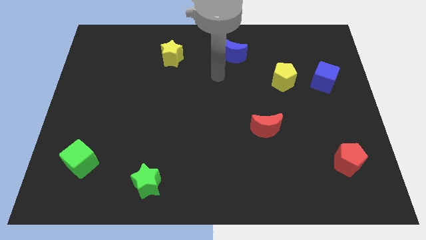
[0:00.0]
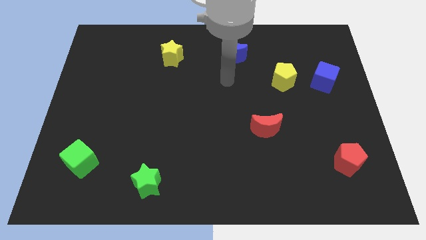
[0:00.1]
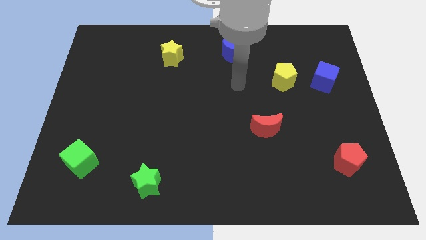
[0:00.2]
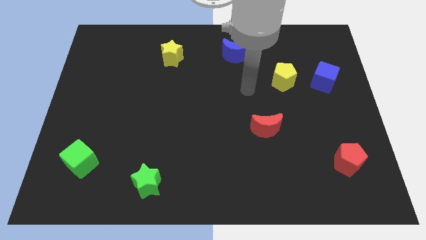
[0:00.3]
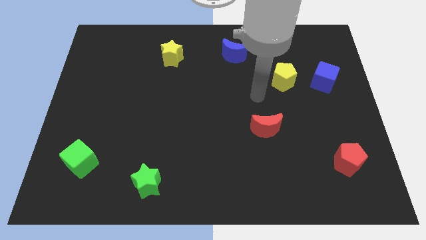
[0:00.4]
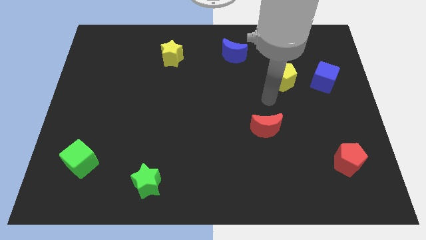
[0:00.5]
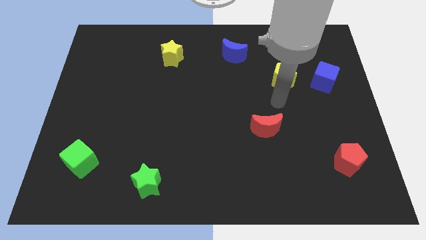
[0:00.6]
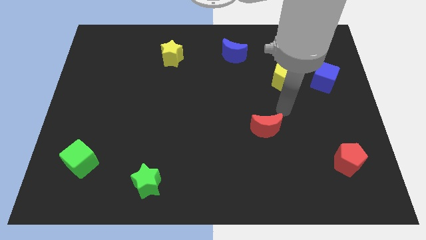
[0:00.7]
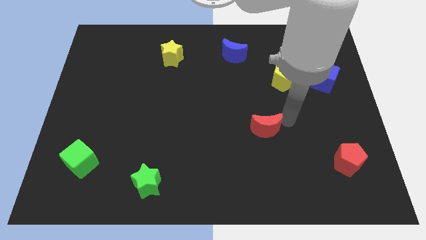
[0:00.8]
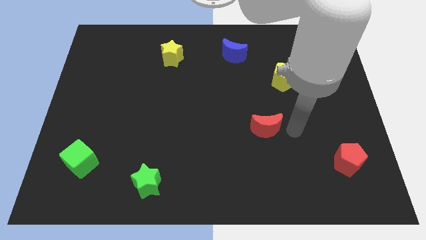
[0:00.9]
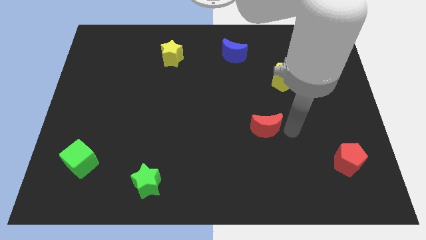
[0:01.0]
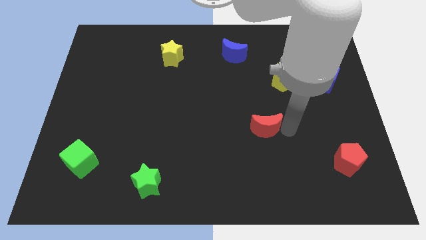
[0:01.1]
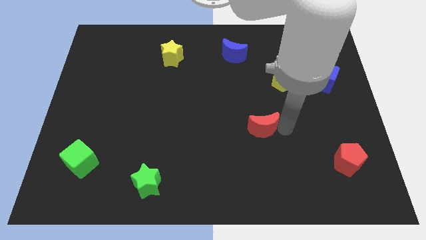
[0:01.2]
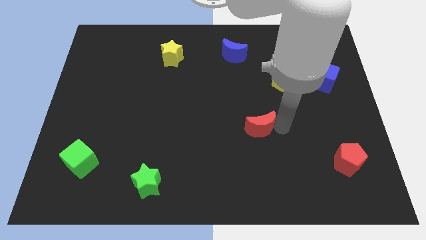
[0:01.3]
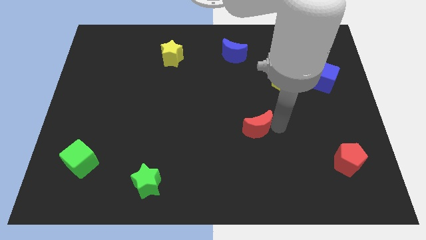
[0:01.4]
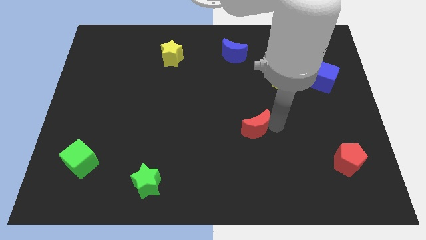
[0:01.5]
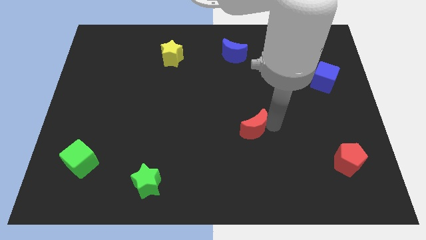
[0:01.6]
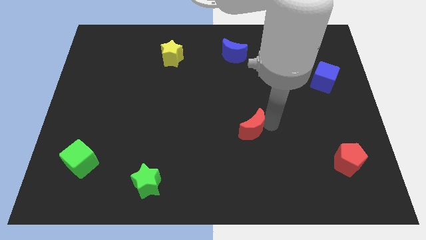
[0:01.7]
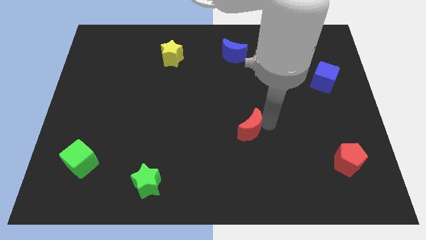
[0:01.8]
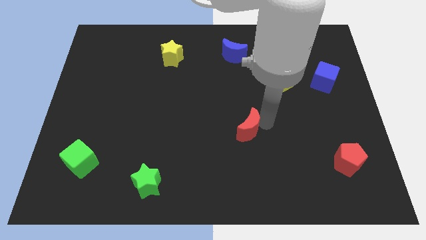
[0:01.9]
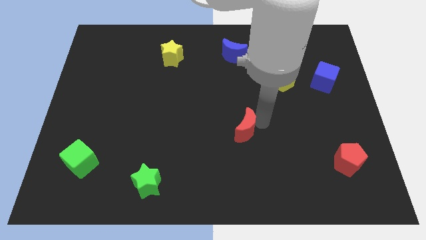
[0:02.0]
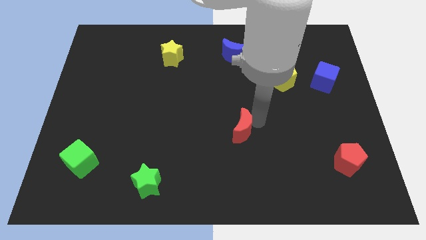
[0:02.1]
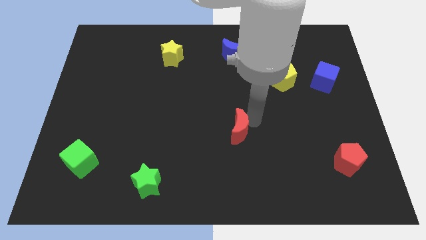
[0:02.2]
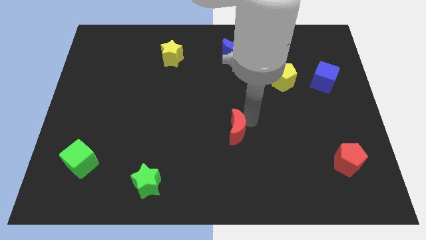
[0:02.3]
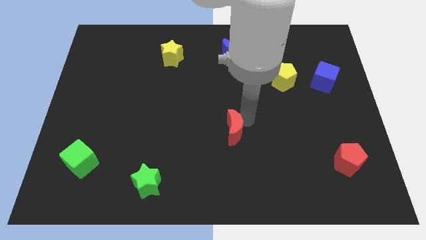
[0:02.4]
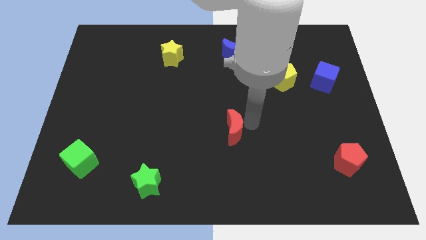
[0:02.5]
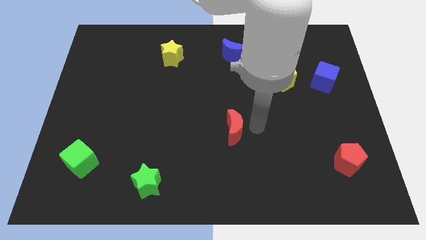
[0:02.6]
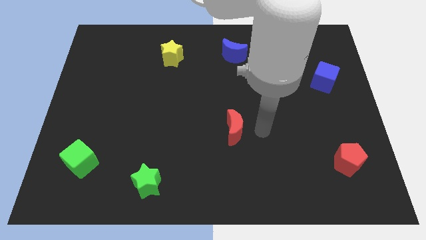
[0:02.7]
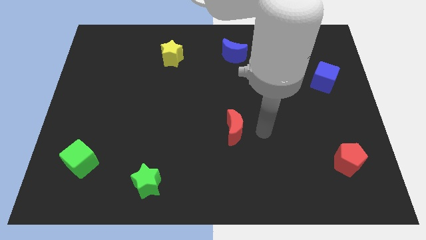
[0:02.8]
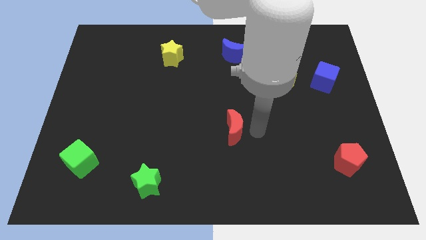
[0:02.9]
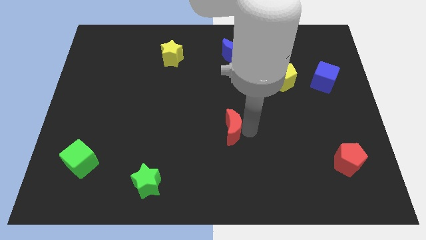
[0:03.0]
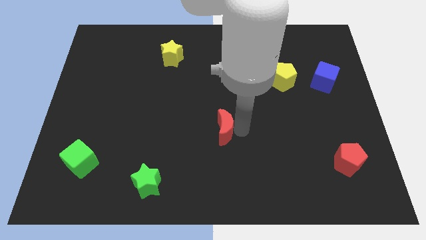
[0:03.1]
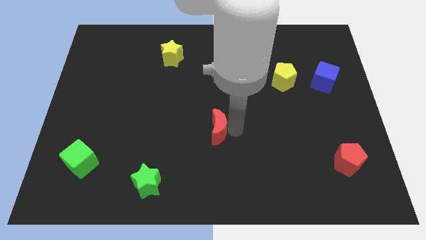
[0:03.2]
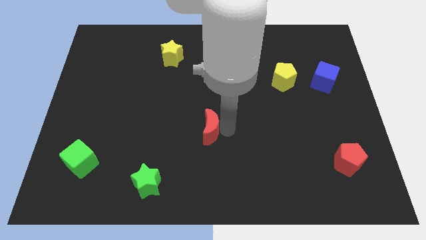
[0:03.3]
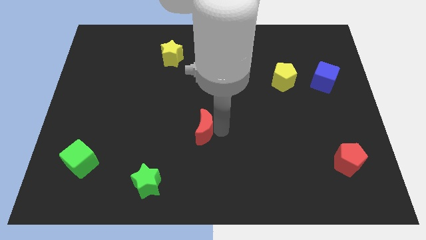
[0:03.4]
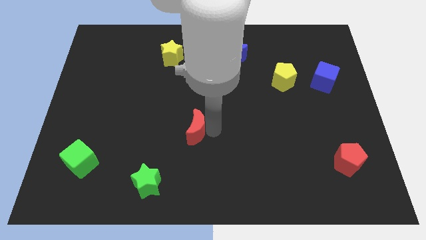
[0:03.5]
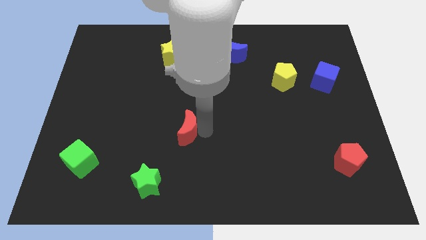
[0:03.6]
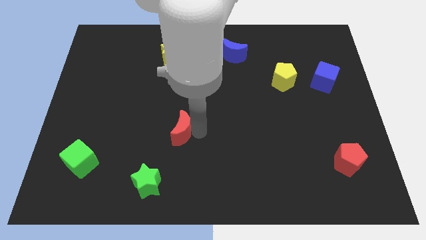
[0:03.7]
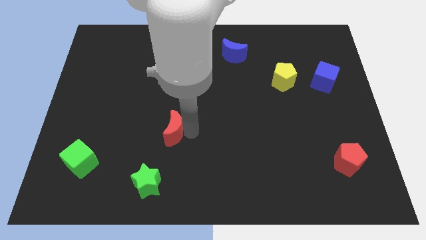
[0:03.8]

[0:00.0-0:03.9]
slide the red moon to the left

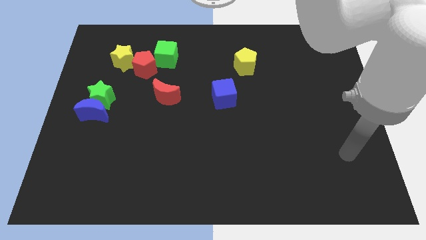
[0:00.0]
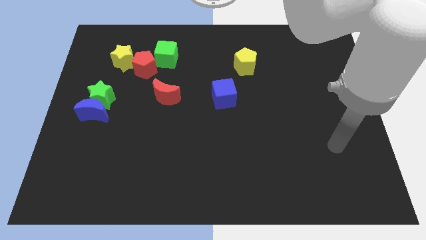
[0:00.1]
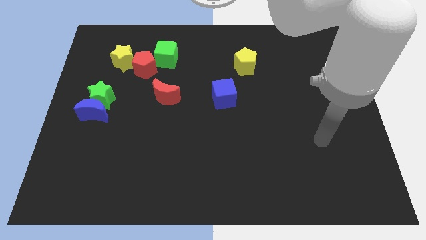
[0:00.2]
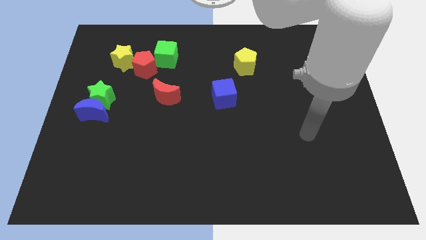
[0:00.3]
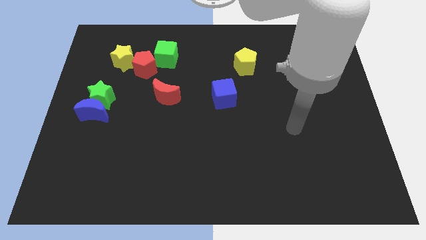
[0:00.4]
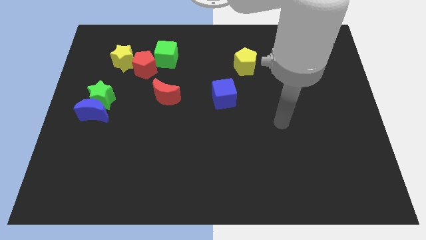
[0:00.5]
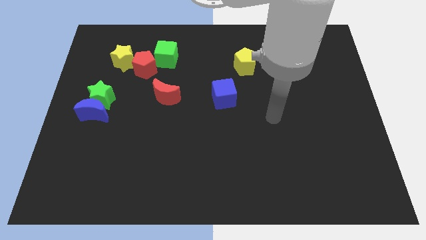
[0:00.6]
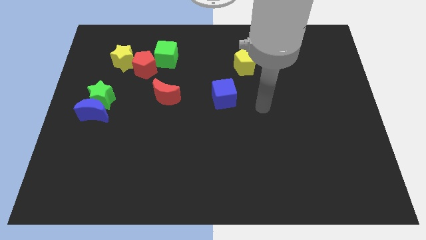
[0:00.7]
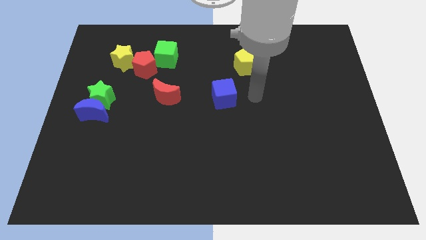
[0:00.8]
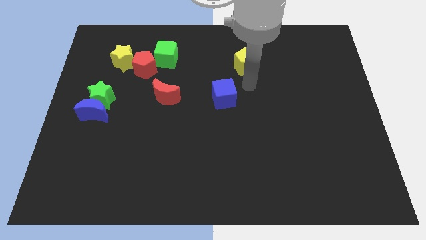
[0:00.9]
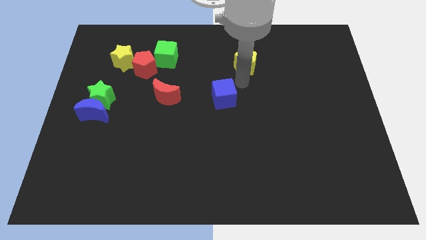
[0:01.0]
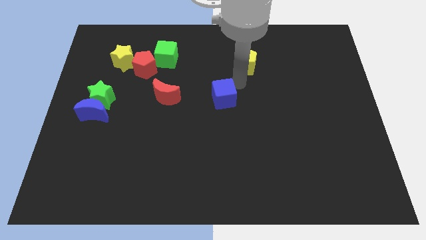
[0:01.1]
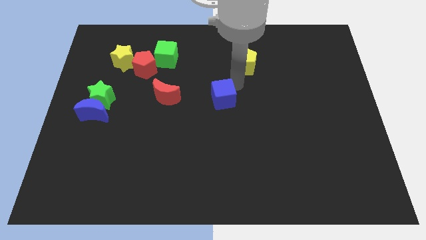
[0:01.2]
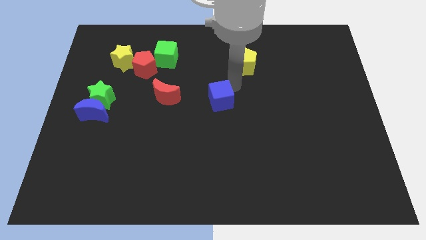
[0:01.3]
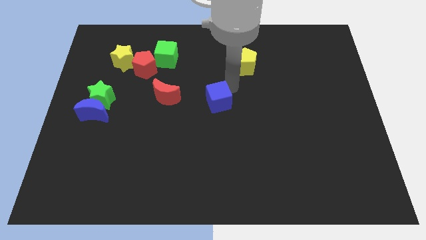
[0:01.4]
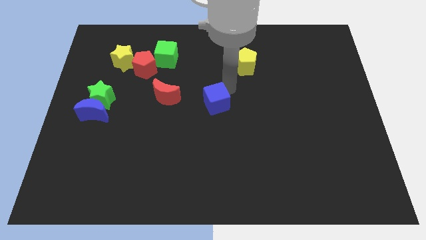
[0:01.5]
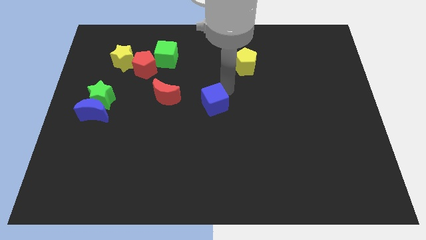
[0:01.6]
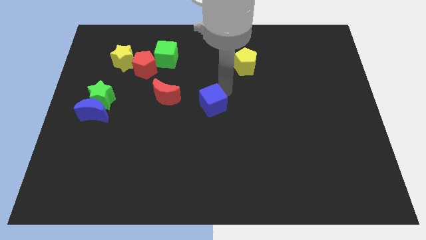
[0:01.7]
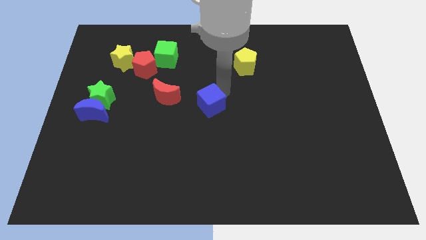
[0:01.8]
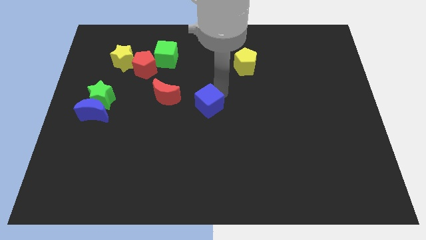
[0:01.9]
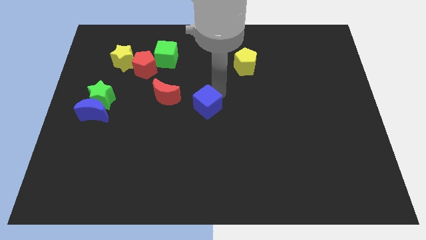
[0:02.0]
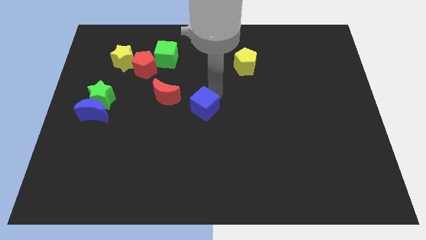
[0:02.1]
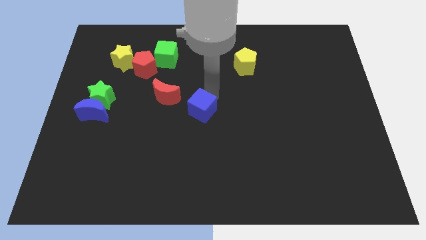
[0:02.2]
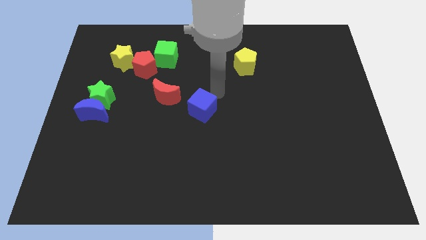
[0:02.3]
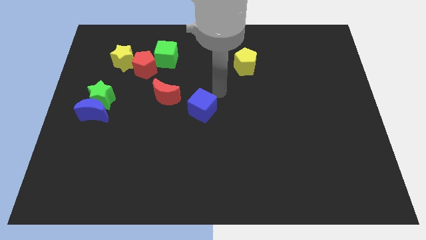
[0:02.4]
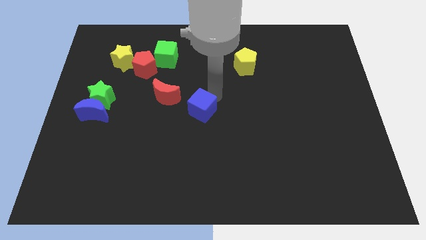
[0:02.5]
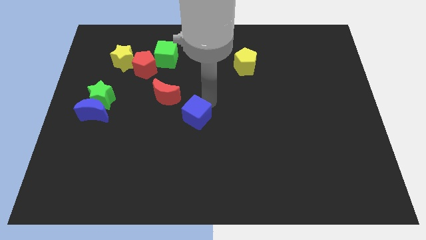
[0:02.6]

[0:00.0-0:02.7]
slightly push the blue cube downwards and then to the left

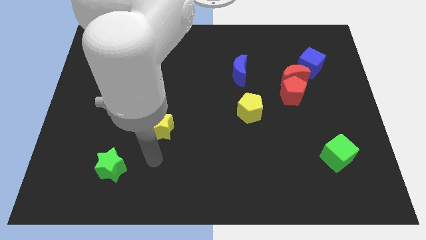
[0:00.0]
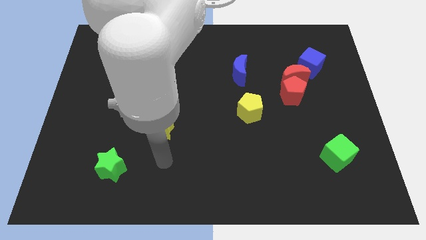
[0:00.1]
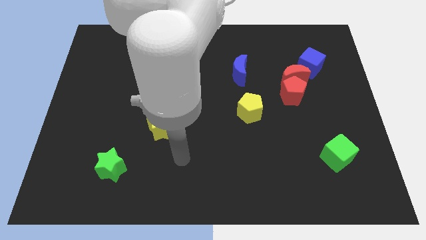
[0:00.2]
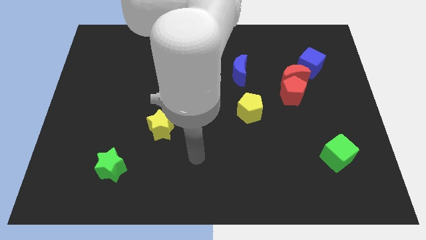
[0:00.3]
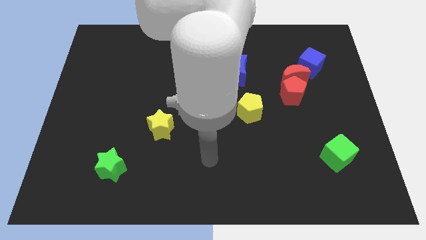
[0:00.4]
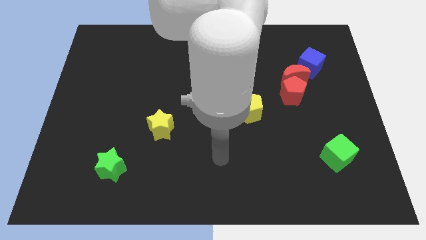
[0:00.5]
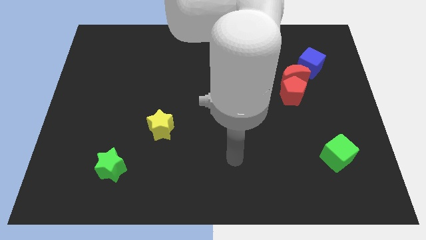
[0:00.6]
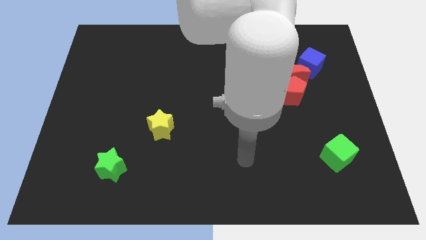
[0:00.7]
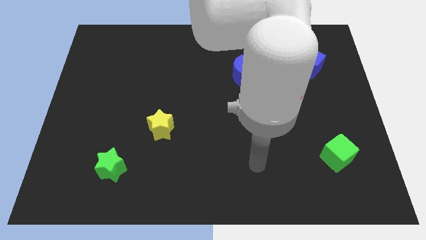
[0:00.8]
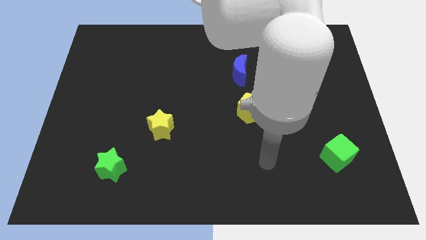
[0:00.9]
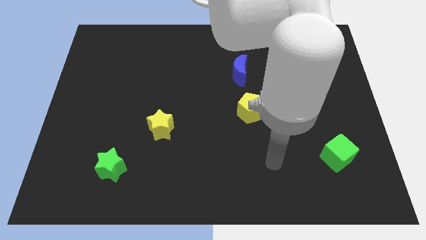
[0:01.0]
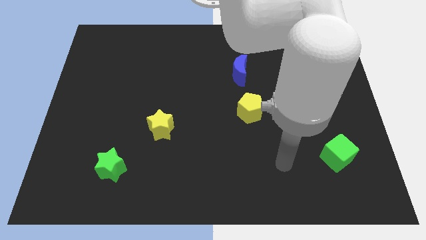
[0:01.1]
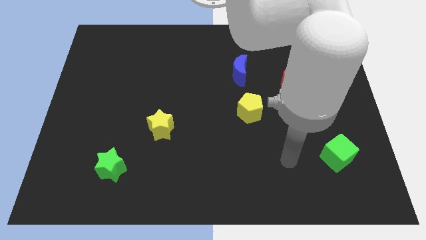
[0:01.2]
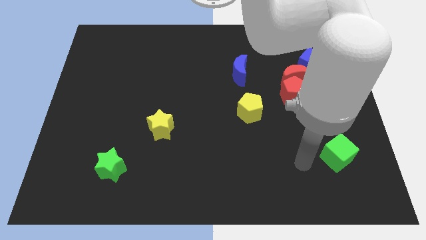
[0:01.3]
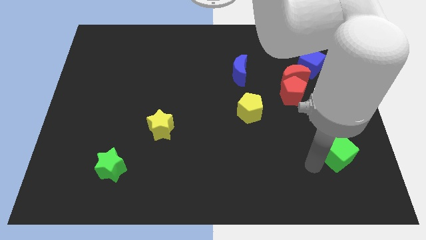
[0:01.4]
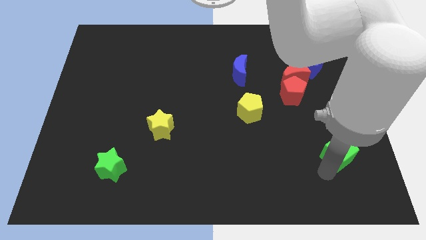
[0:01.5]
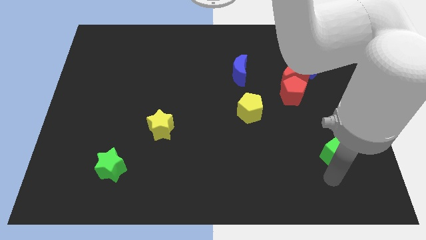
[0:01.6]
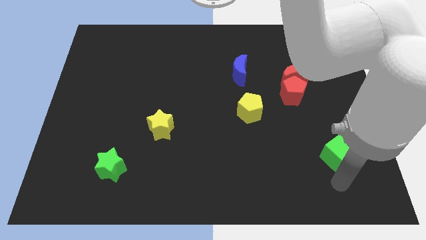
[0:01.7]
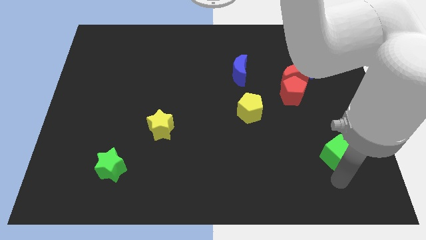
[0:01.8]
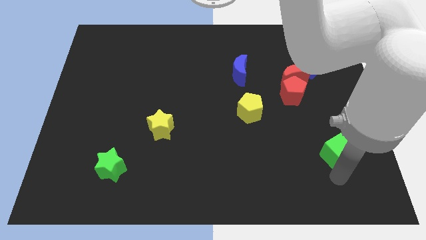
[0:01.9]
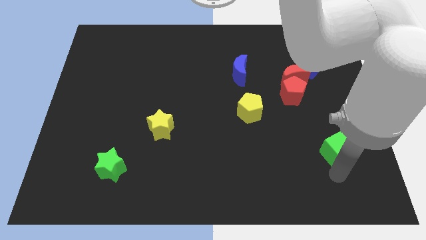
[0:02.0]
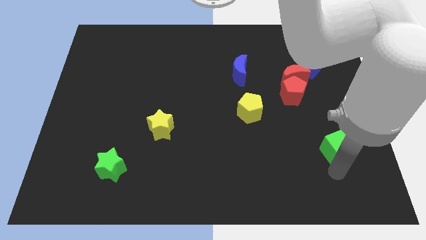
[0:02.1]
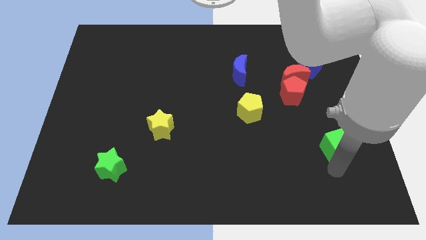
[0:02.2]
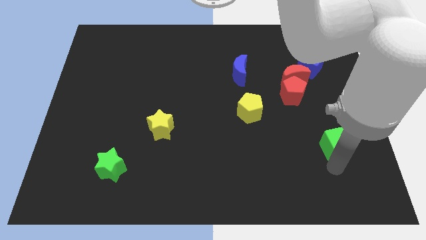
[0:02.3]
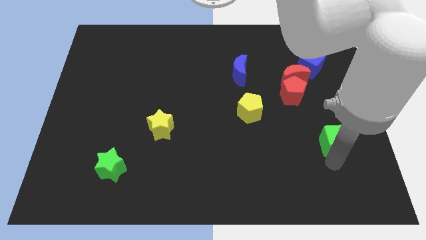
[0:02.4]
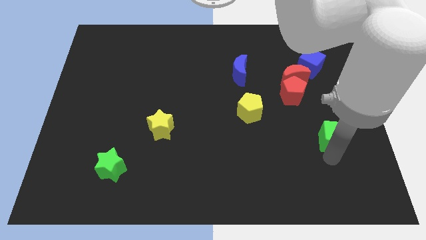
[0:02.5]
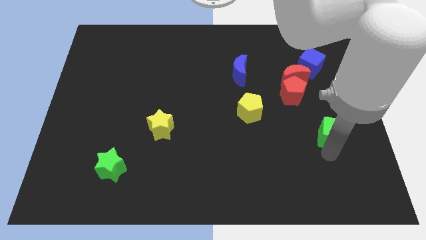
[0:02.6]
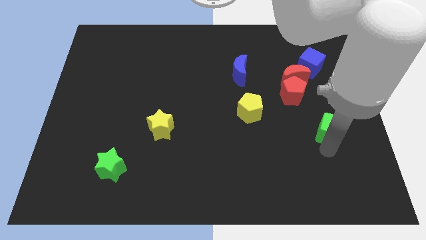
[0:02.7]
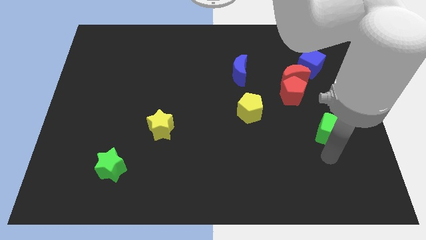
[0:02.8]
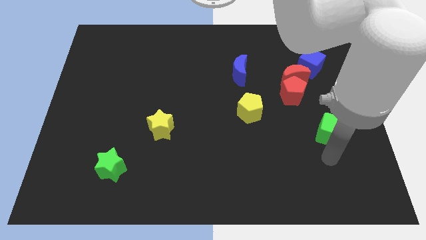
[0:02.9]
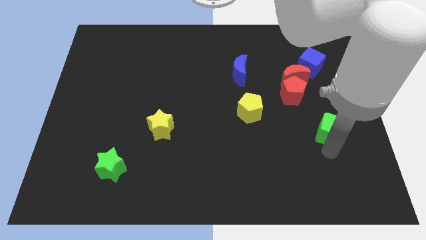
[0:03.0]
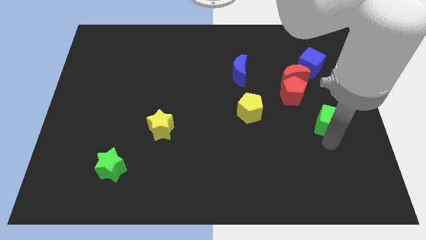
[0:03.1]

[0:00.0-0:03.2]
push the green cube upwards slightly
